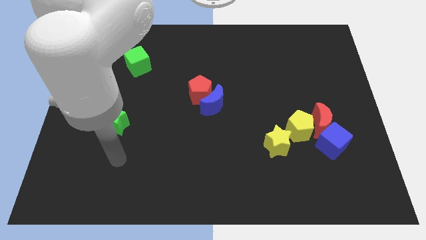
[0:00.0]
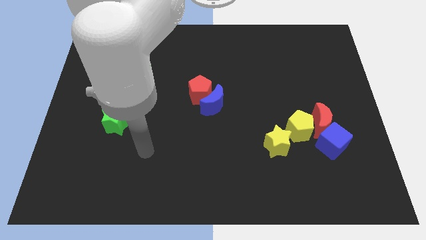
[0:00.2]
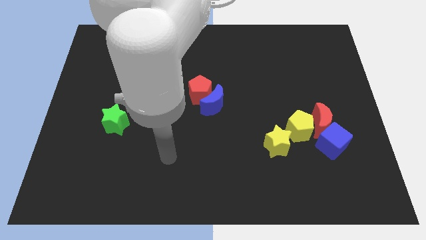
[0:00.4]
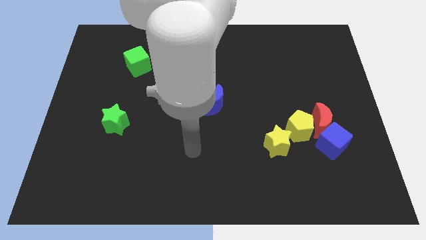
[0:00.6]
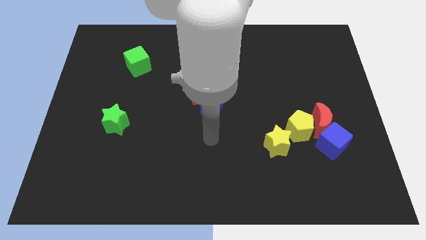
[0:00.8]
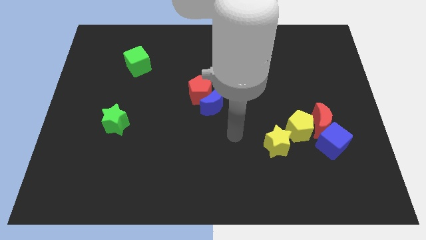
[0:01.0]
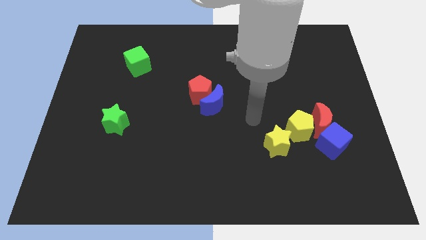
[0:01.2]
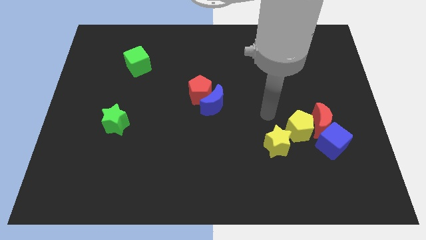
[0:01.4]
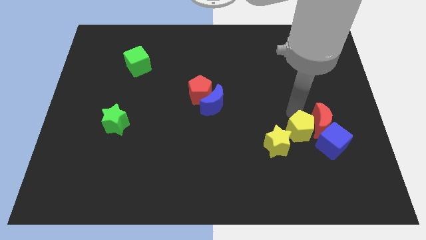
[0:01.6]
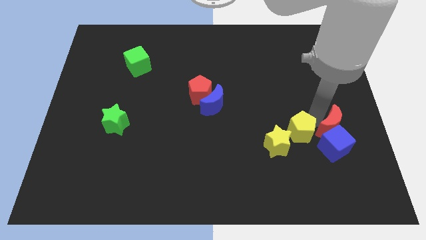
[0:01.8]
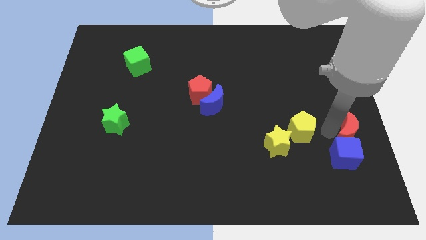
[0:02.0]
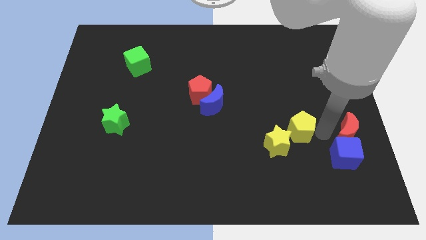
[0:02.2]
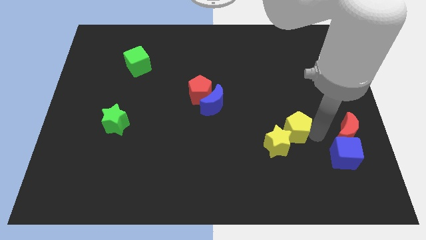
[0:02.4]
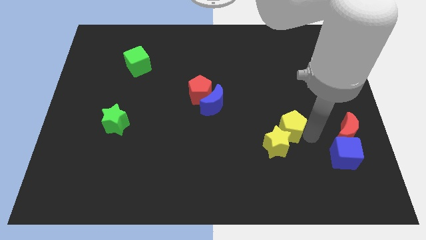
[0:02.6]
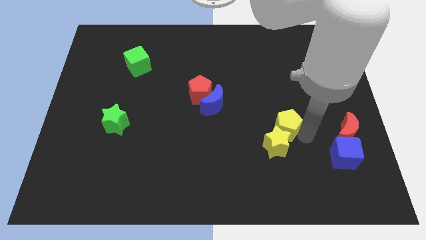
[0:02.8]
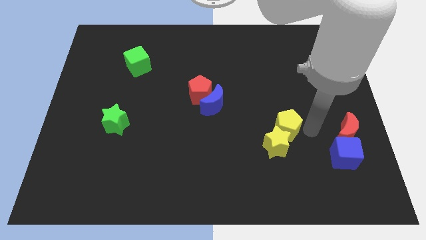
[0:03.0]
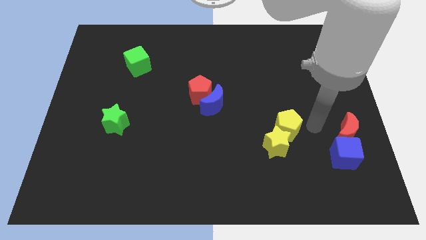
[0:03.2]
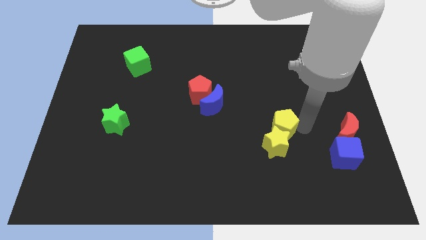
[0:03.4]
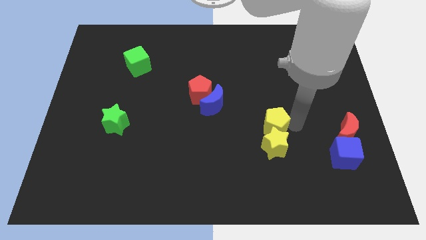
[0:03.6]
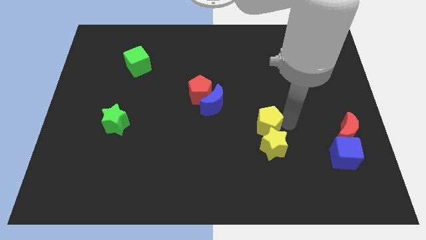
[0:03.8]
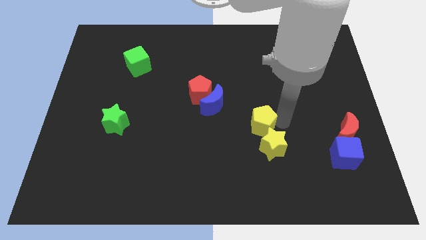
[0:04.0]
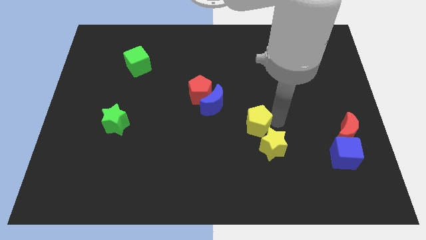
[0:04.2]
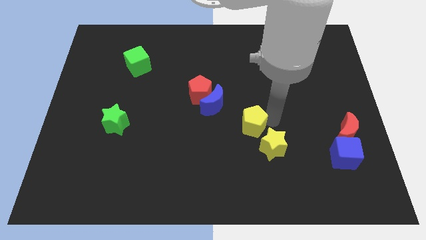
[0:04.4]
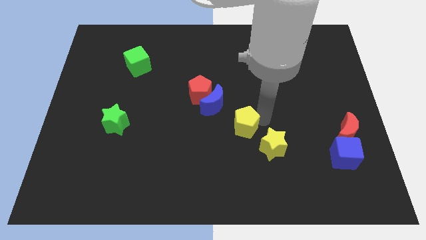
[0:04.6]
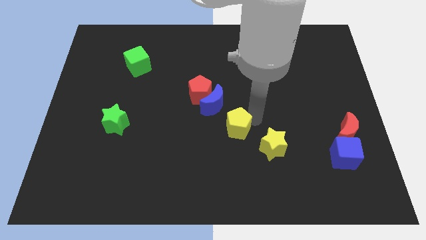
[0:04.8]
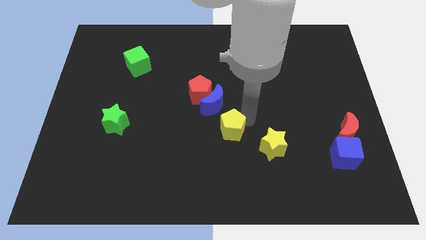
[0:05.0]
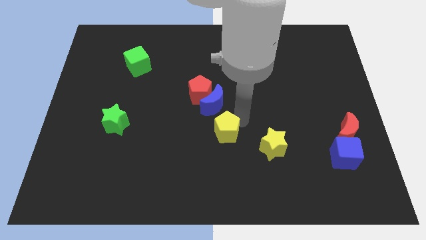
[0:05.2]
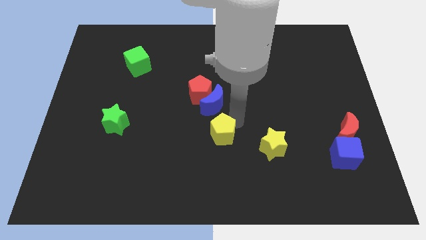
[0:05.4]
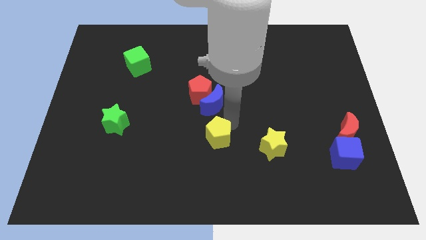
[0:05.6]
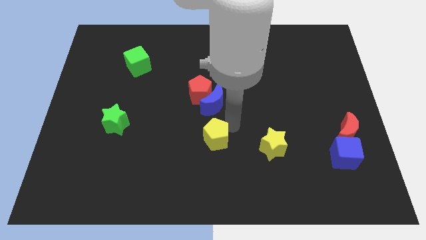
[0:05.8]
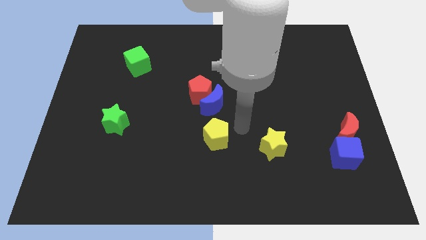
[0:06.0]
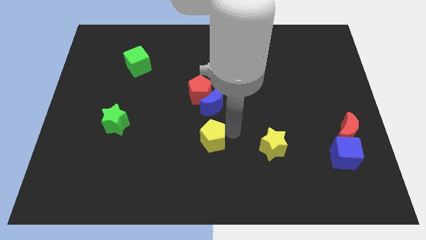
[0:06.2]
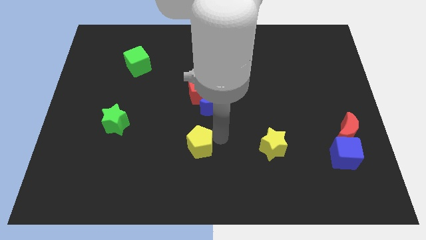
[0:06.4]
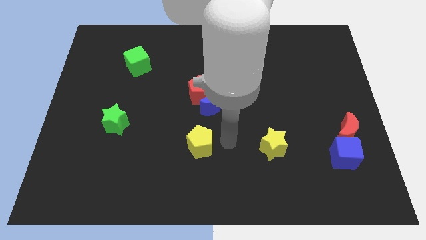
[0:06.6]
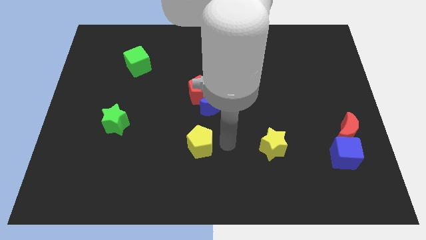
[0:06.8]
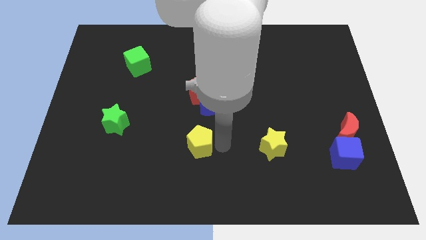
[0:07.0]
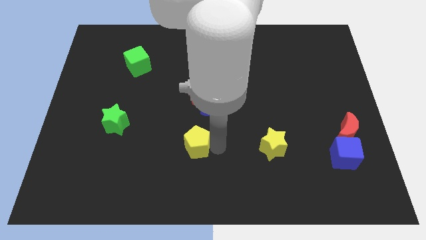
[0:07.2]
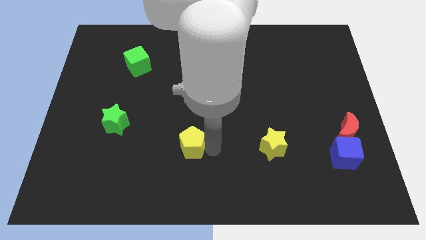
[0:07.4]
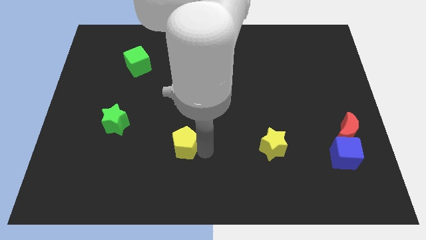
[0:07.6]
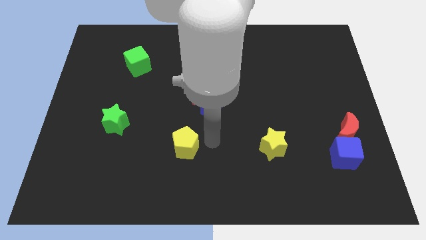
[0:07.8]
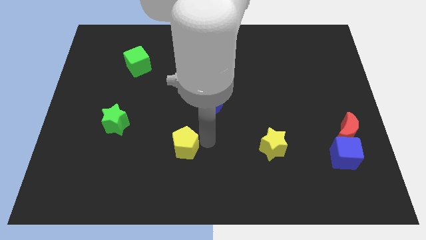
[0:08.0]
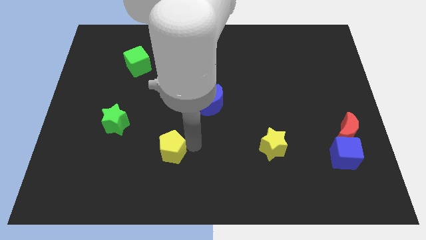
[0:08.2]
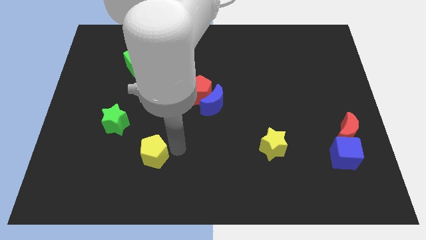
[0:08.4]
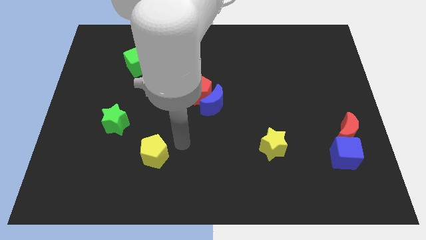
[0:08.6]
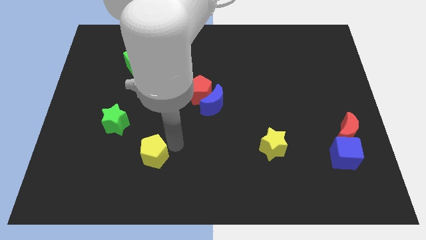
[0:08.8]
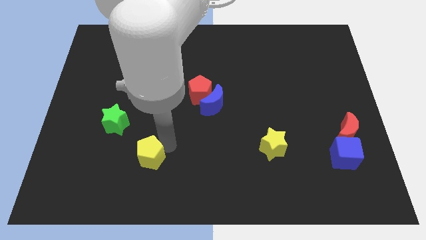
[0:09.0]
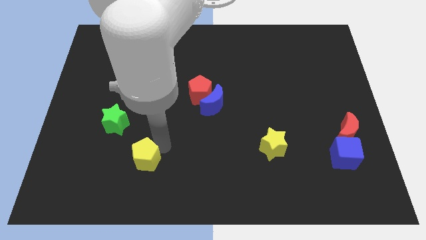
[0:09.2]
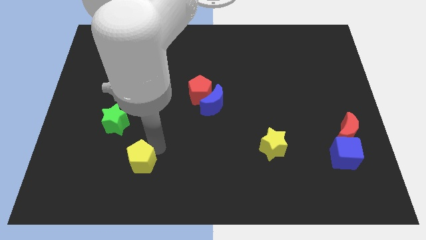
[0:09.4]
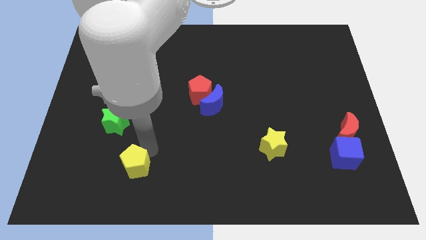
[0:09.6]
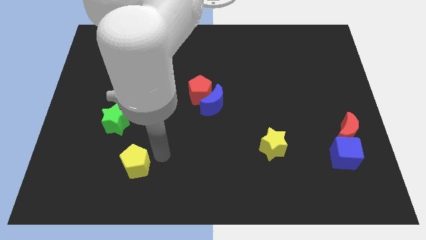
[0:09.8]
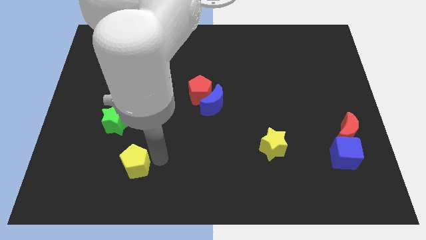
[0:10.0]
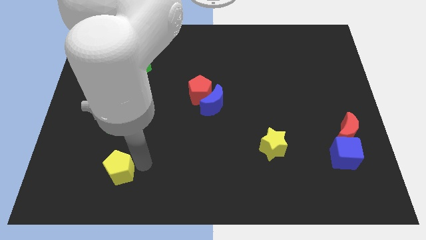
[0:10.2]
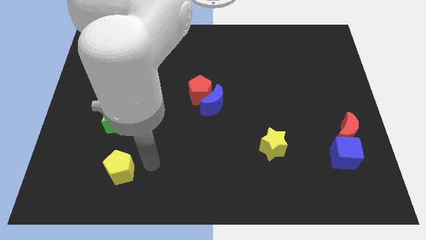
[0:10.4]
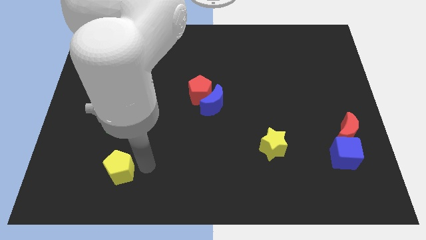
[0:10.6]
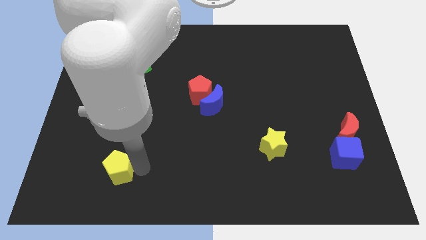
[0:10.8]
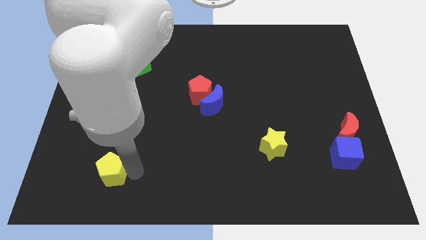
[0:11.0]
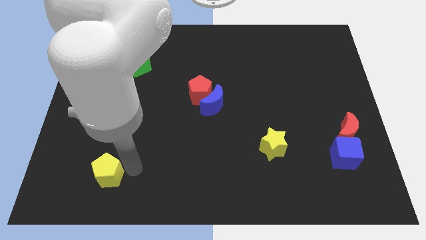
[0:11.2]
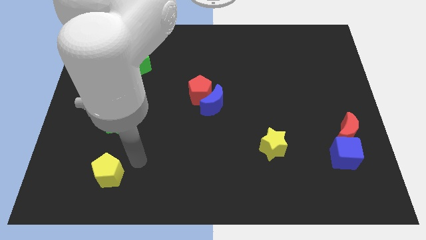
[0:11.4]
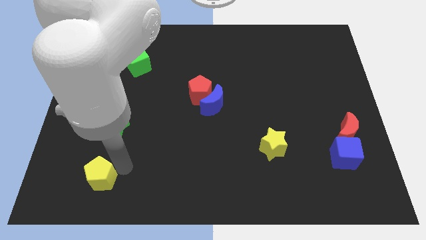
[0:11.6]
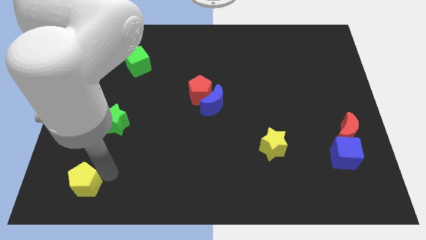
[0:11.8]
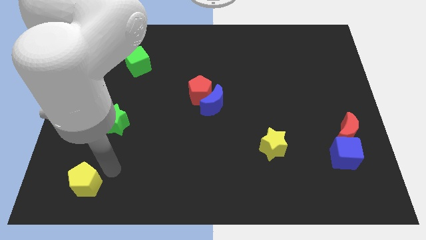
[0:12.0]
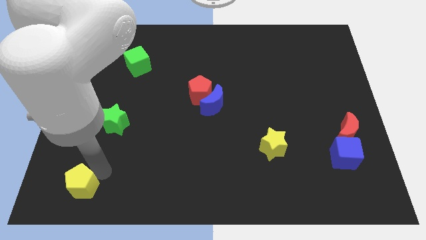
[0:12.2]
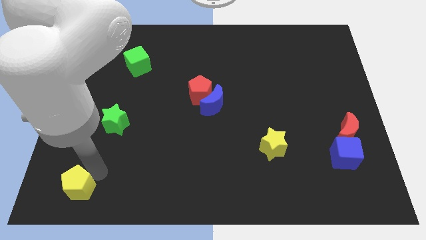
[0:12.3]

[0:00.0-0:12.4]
slide the yellow pentagon to the bottom left of the board

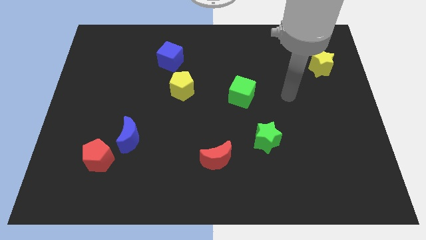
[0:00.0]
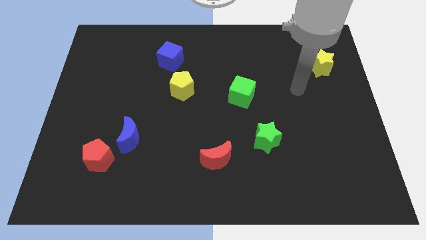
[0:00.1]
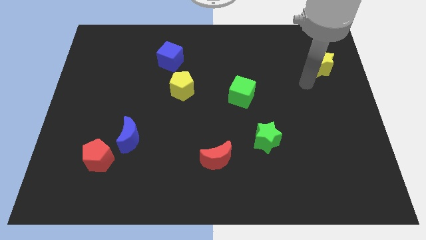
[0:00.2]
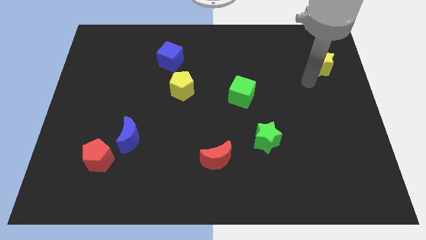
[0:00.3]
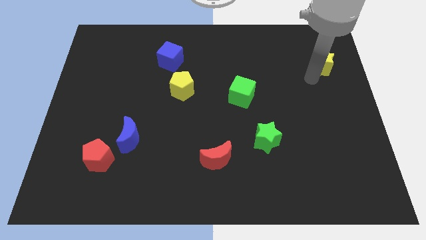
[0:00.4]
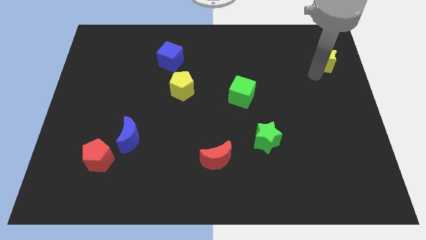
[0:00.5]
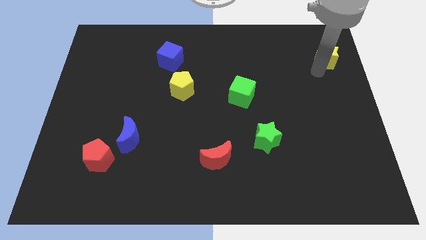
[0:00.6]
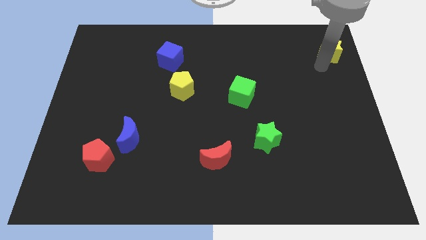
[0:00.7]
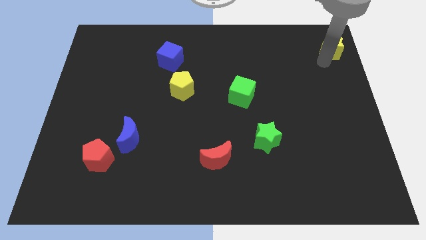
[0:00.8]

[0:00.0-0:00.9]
move the yellow star to the top right corner

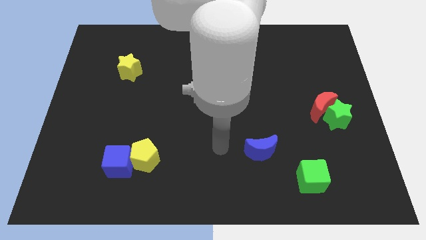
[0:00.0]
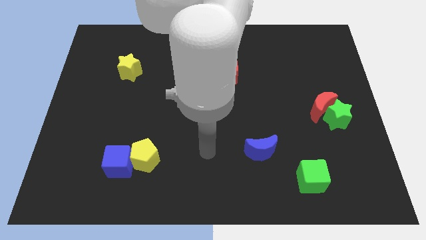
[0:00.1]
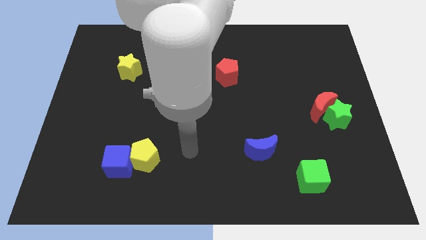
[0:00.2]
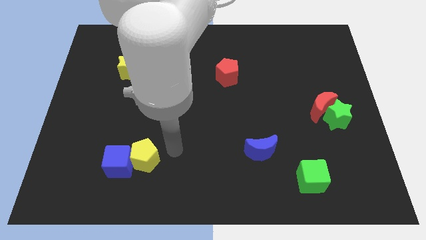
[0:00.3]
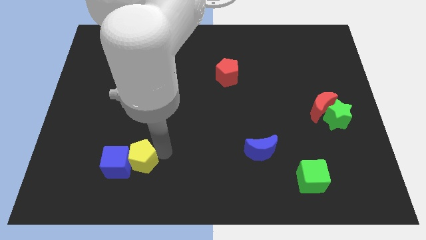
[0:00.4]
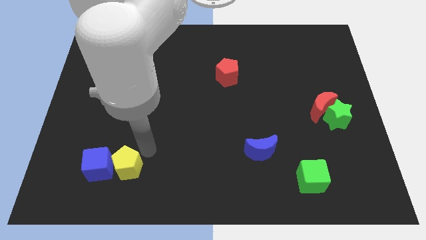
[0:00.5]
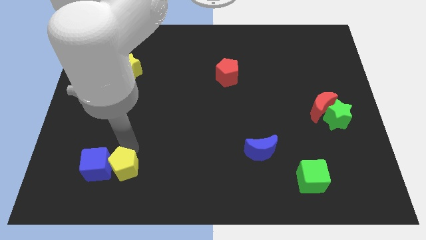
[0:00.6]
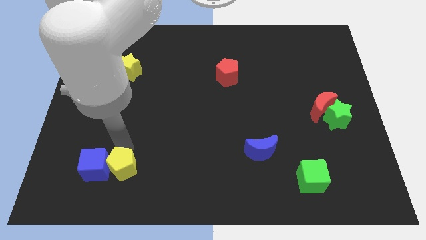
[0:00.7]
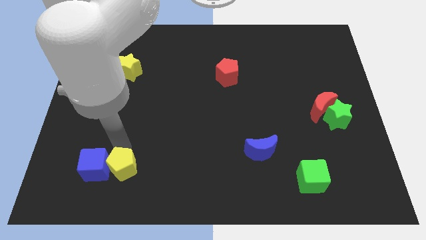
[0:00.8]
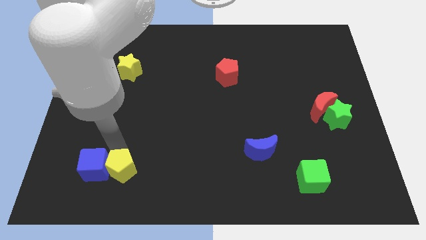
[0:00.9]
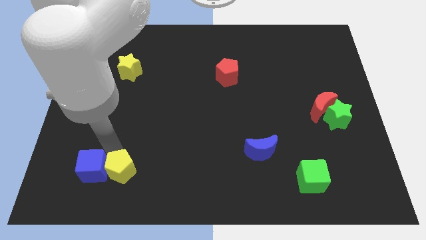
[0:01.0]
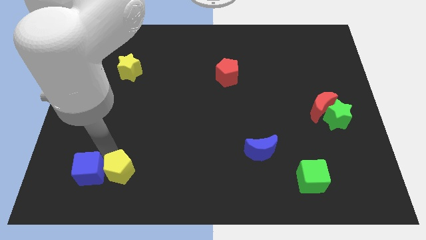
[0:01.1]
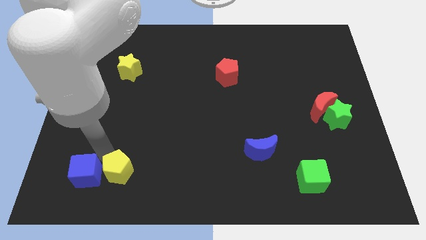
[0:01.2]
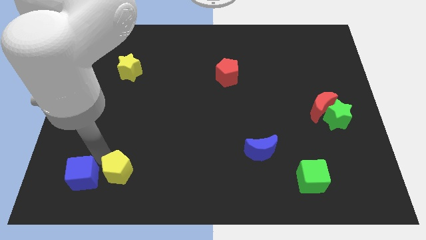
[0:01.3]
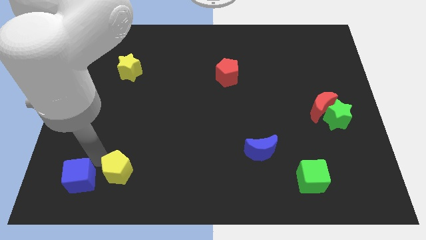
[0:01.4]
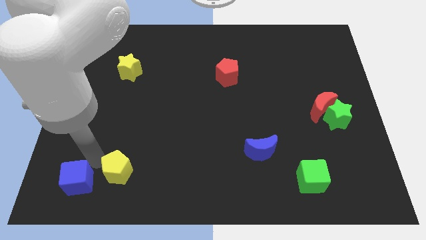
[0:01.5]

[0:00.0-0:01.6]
put the blue cube to the bottom left
